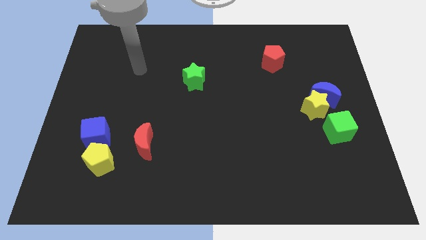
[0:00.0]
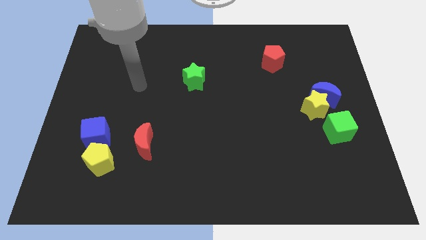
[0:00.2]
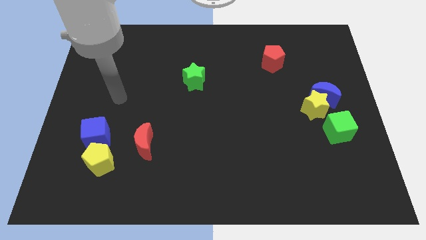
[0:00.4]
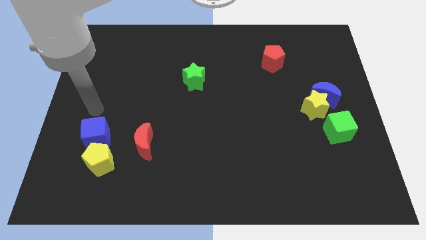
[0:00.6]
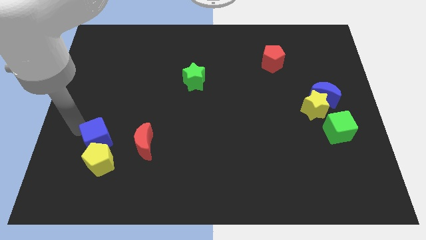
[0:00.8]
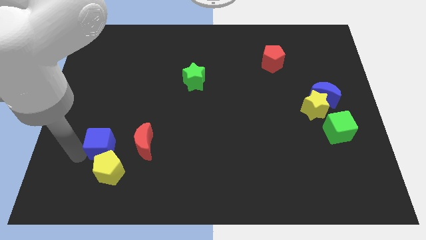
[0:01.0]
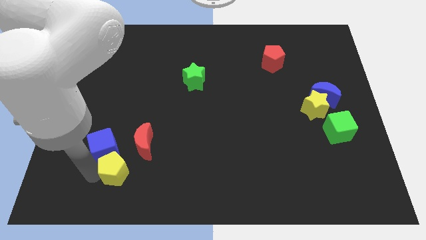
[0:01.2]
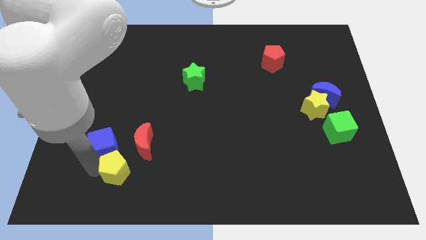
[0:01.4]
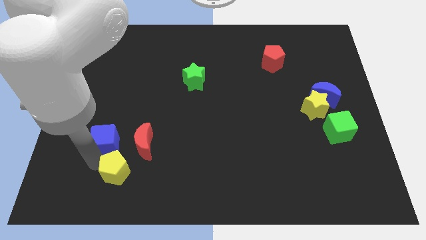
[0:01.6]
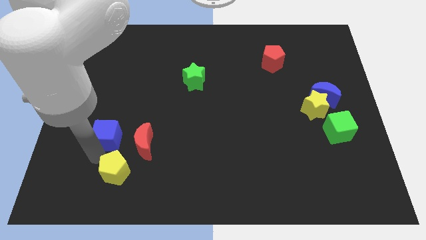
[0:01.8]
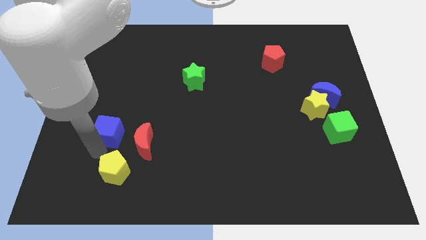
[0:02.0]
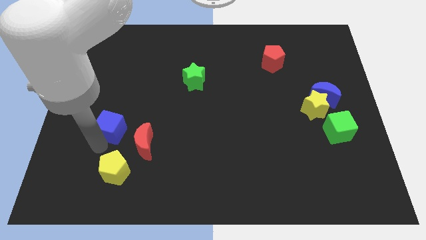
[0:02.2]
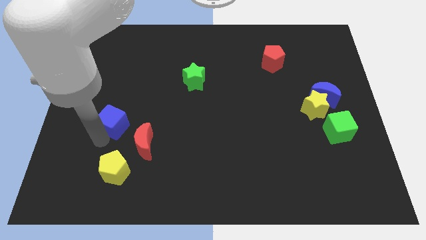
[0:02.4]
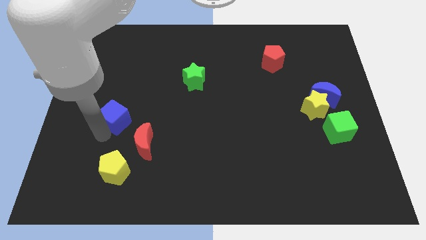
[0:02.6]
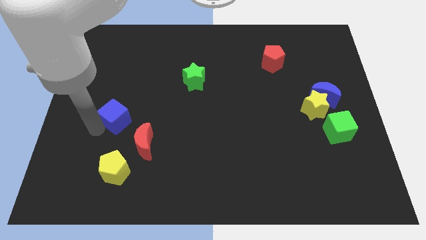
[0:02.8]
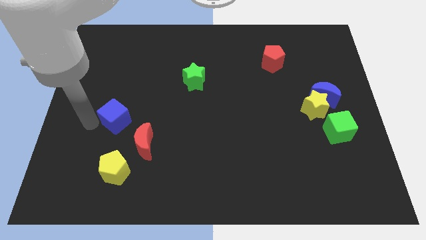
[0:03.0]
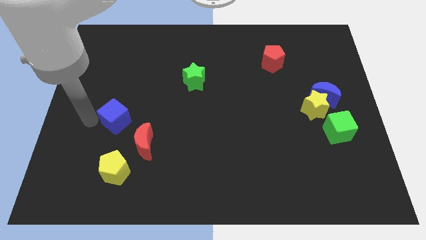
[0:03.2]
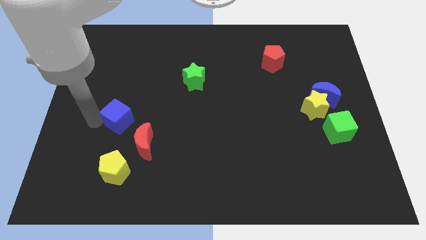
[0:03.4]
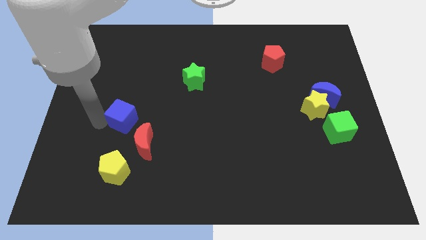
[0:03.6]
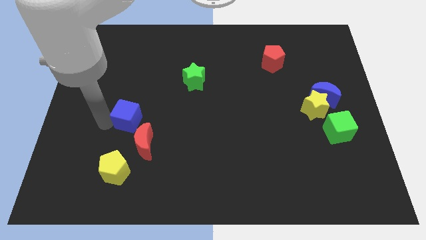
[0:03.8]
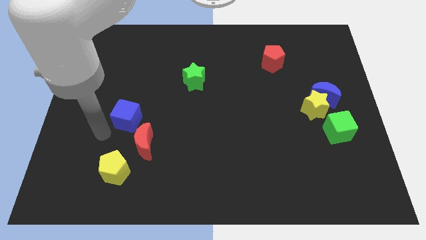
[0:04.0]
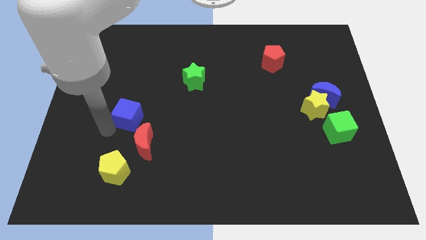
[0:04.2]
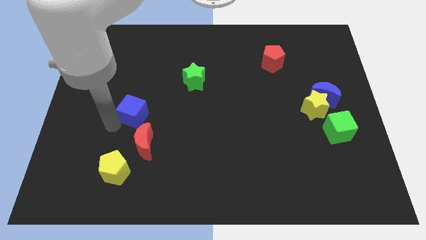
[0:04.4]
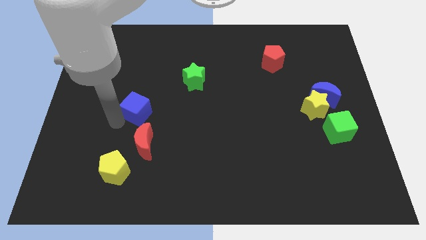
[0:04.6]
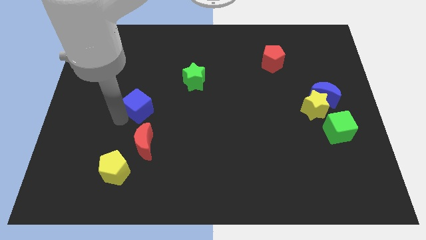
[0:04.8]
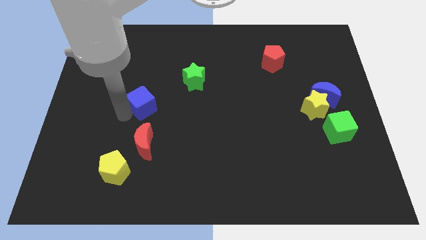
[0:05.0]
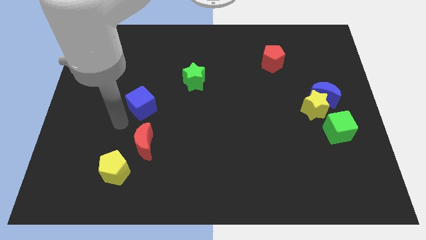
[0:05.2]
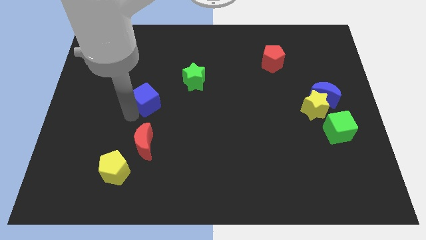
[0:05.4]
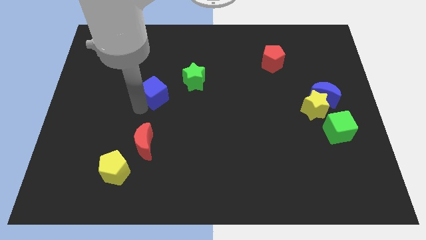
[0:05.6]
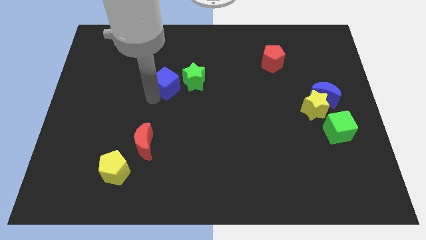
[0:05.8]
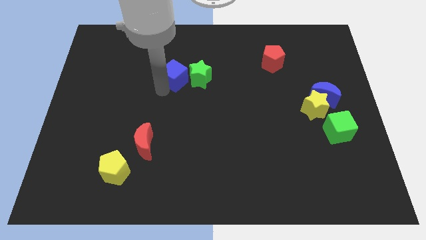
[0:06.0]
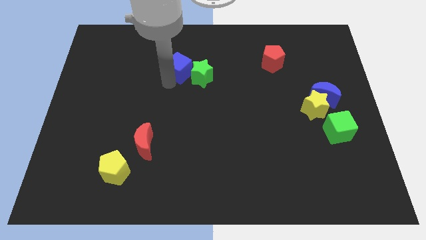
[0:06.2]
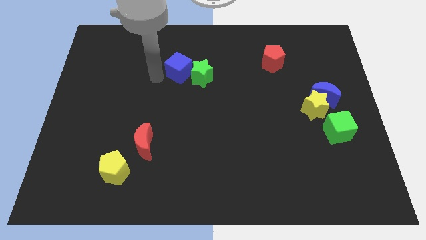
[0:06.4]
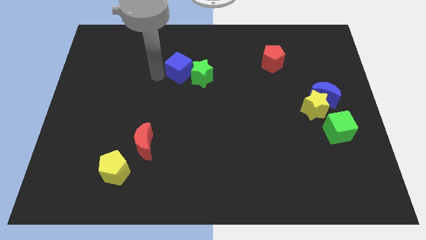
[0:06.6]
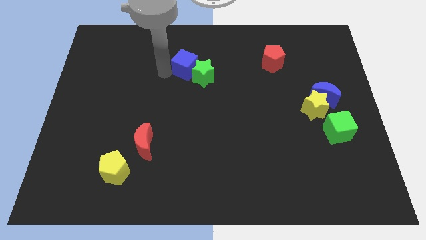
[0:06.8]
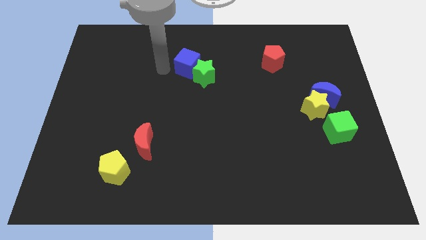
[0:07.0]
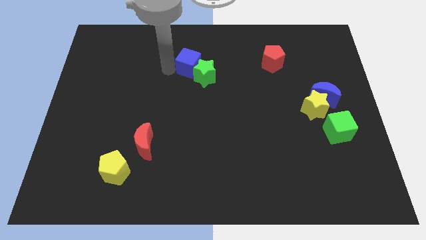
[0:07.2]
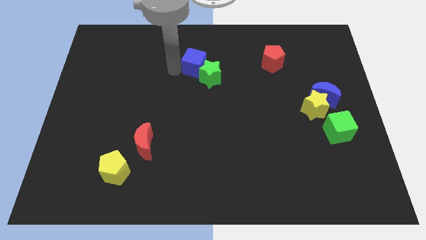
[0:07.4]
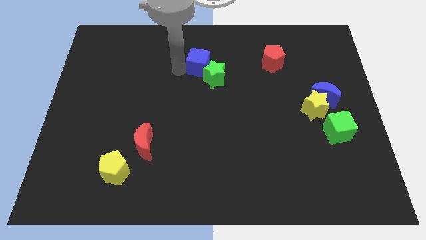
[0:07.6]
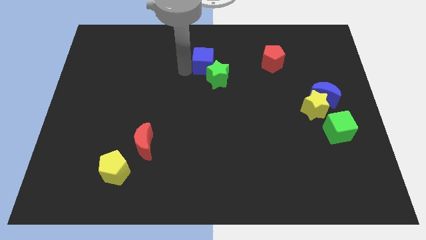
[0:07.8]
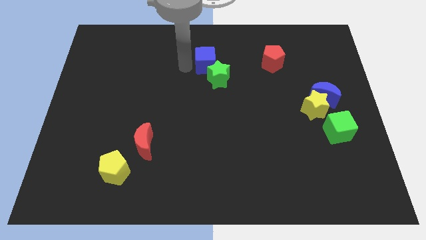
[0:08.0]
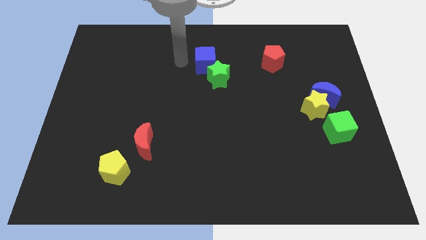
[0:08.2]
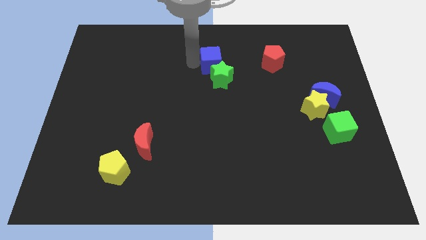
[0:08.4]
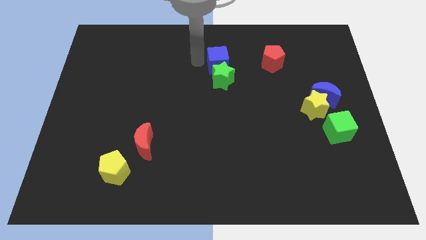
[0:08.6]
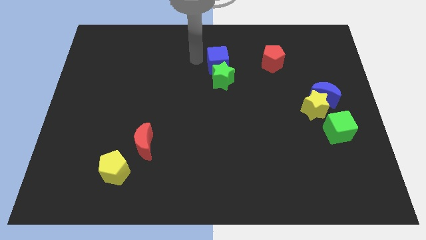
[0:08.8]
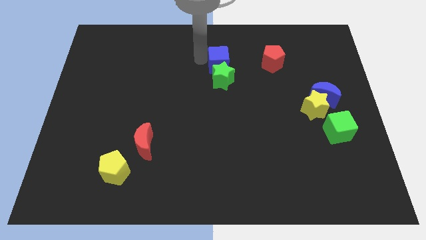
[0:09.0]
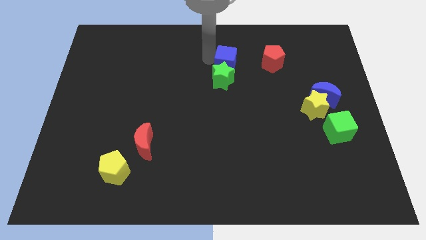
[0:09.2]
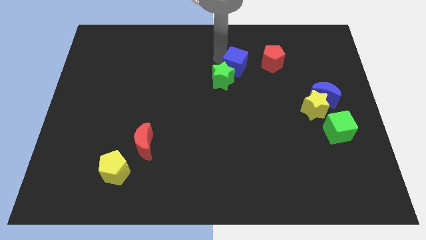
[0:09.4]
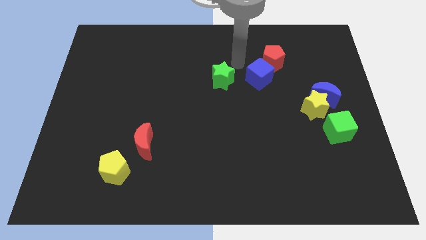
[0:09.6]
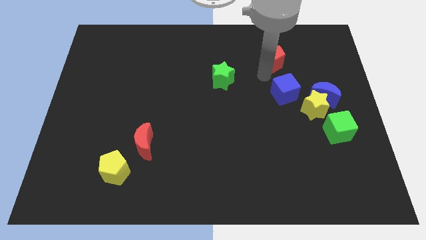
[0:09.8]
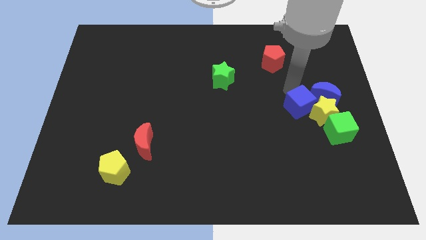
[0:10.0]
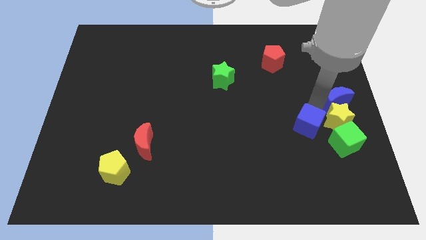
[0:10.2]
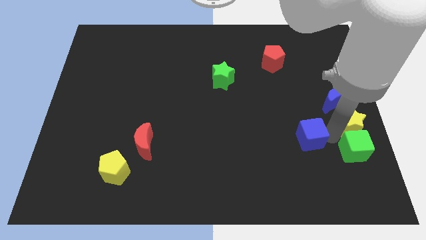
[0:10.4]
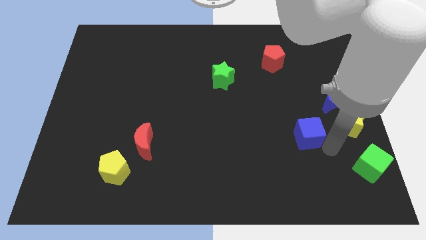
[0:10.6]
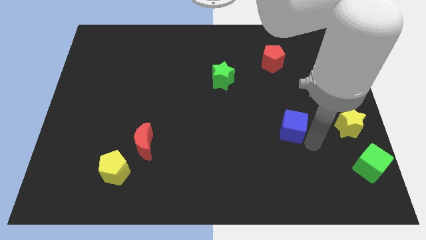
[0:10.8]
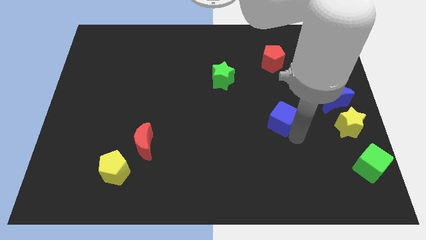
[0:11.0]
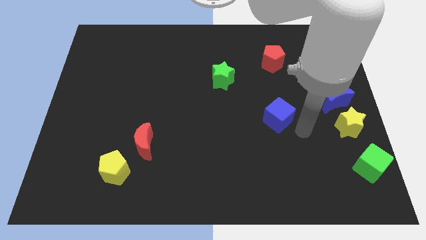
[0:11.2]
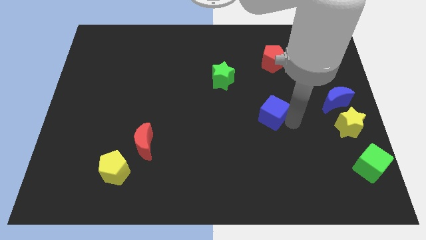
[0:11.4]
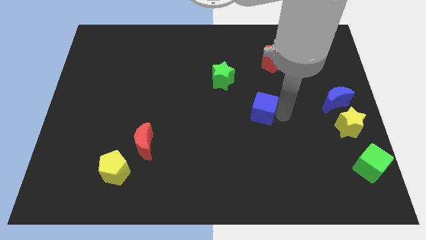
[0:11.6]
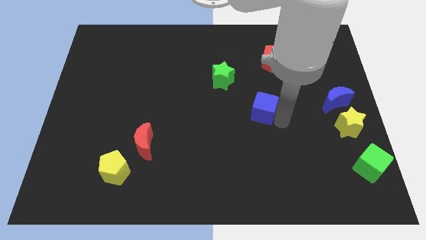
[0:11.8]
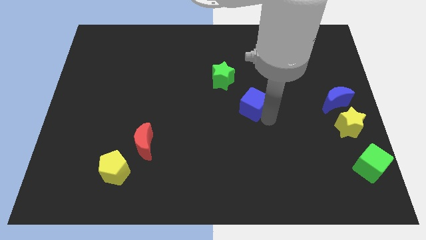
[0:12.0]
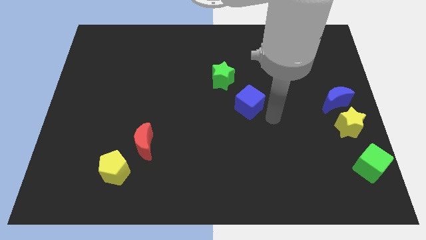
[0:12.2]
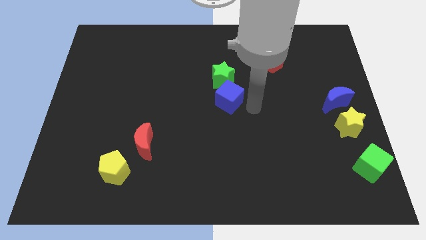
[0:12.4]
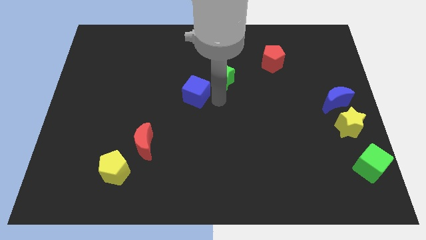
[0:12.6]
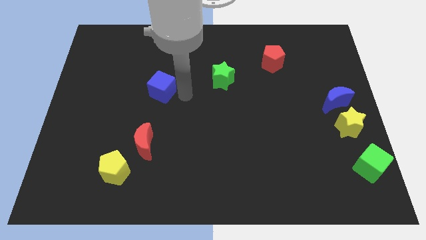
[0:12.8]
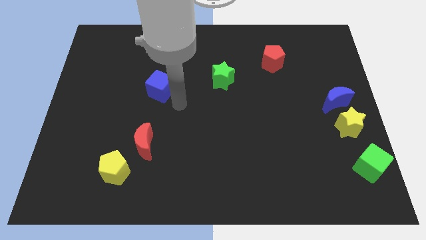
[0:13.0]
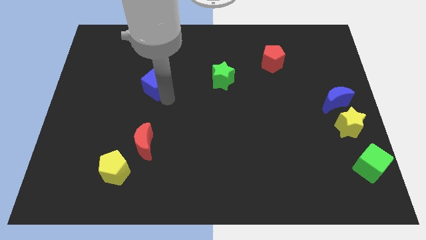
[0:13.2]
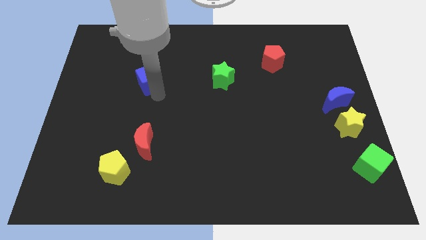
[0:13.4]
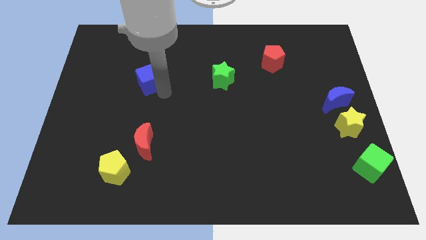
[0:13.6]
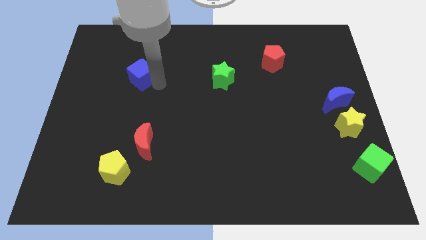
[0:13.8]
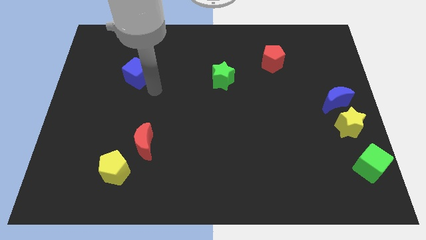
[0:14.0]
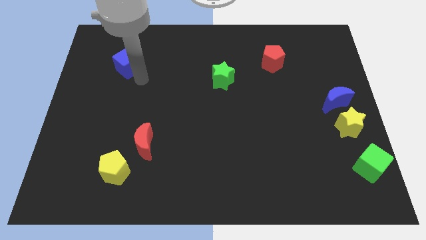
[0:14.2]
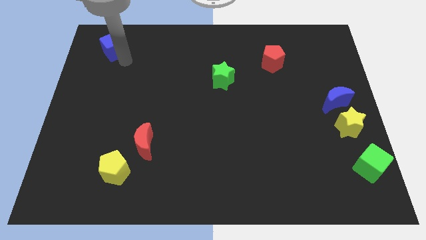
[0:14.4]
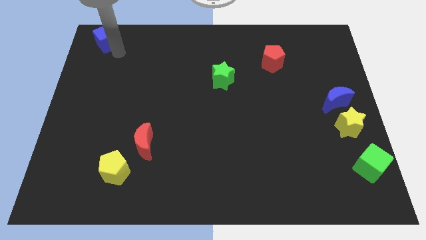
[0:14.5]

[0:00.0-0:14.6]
push the blue cube to the upper left corner
